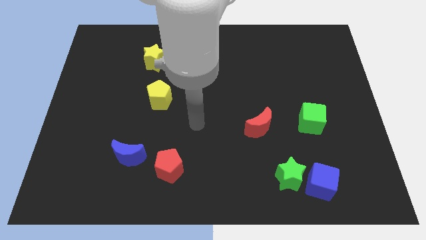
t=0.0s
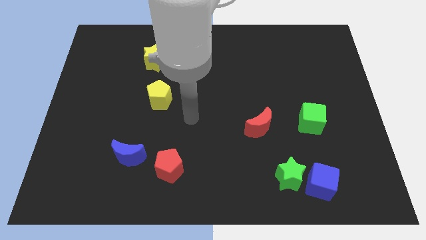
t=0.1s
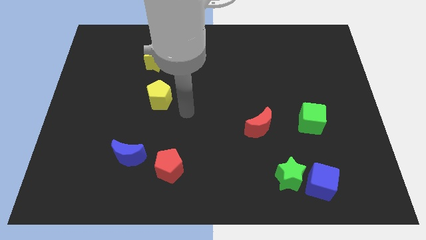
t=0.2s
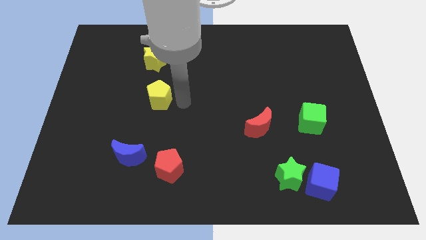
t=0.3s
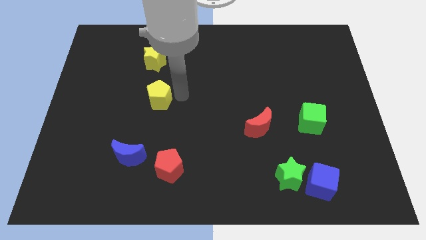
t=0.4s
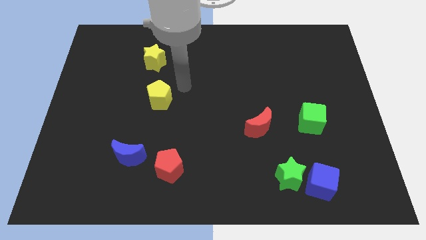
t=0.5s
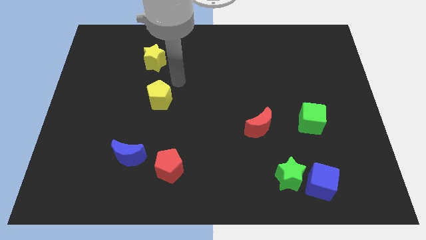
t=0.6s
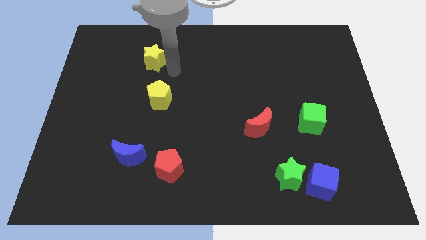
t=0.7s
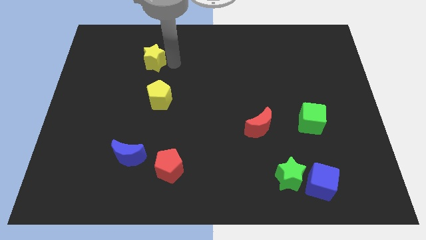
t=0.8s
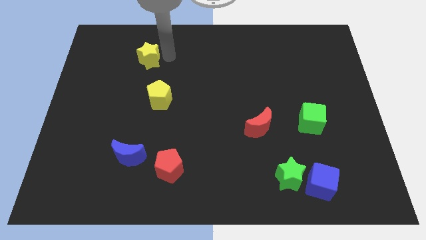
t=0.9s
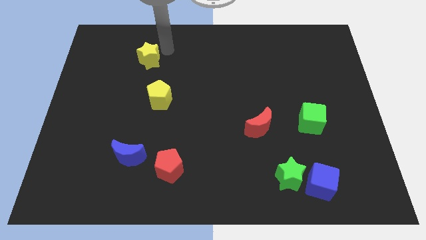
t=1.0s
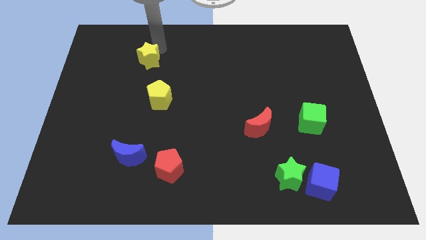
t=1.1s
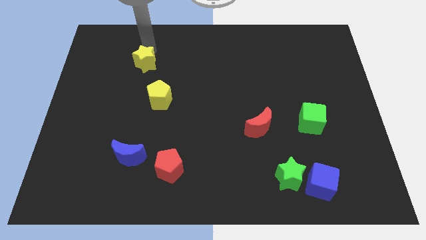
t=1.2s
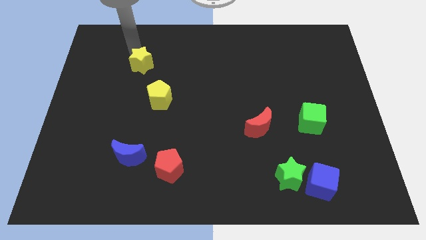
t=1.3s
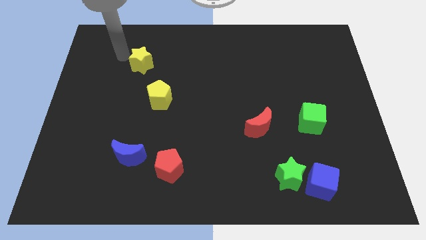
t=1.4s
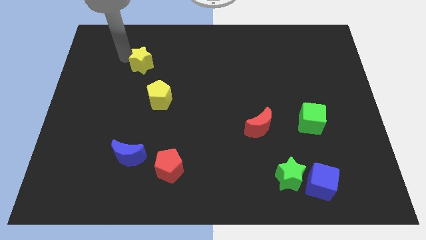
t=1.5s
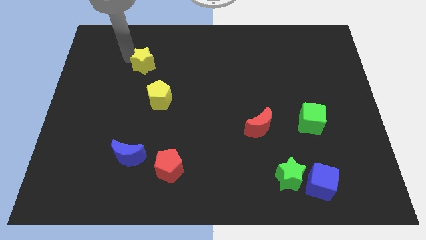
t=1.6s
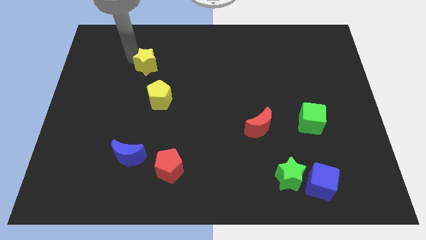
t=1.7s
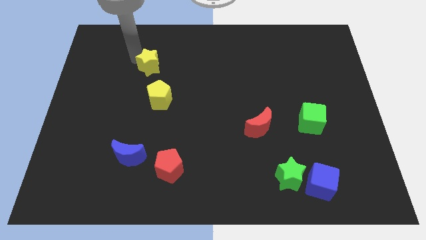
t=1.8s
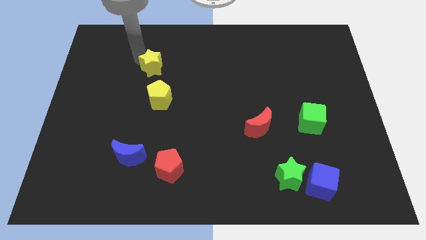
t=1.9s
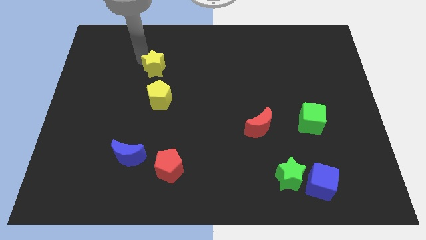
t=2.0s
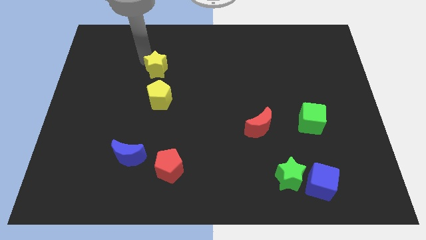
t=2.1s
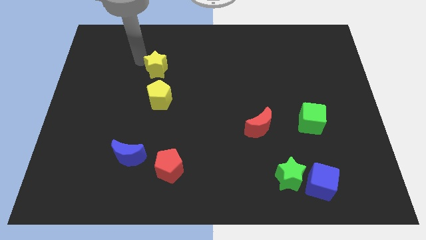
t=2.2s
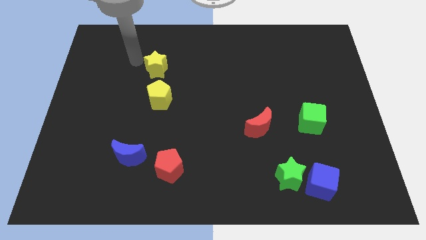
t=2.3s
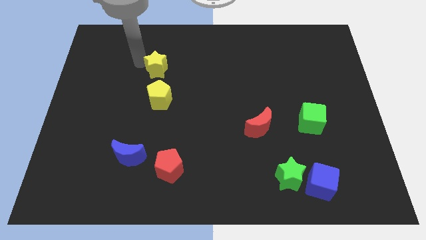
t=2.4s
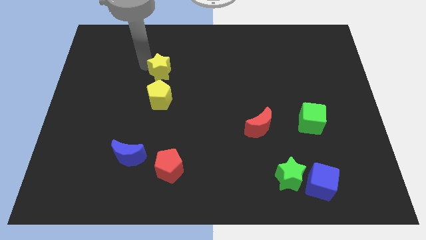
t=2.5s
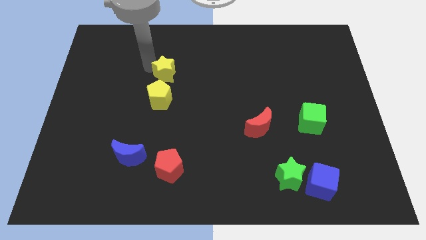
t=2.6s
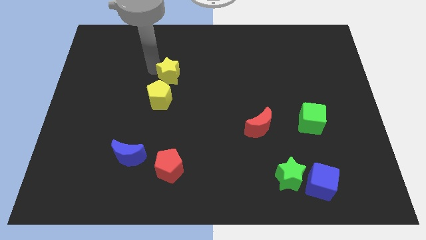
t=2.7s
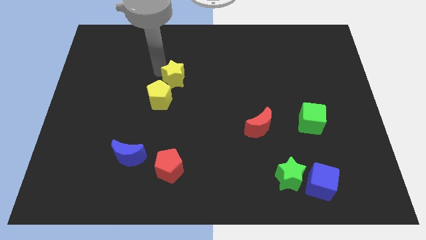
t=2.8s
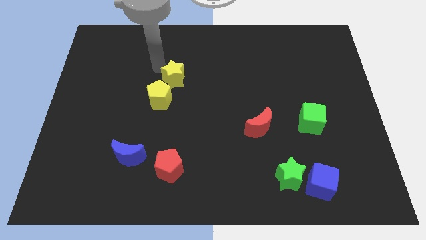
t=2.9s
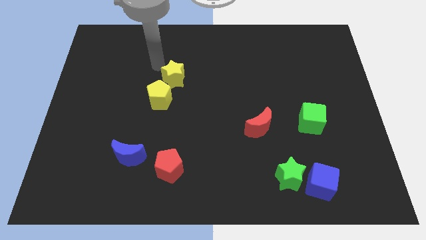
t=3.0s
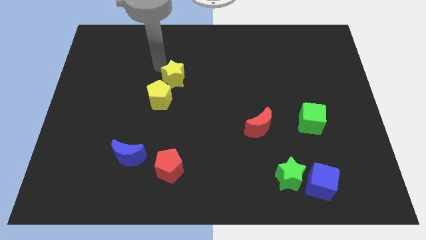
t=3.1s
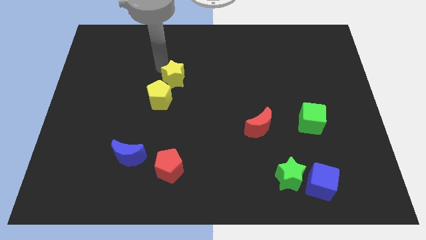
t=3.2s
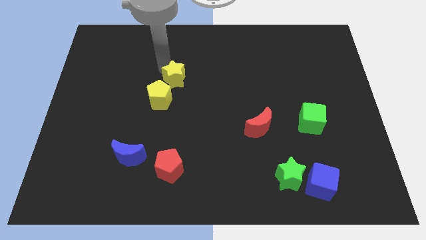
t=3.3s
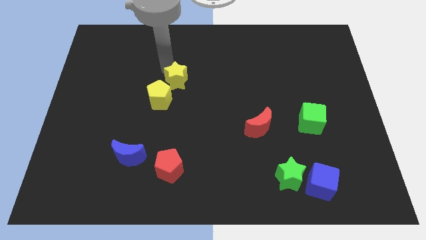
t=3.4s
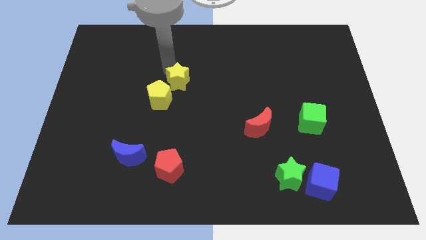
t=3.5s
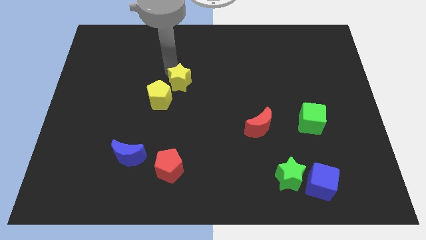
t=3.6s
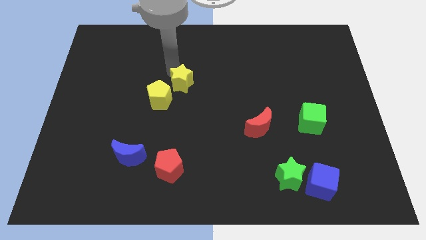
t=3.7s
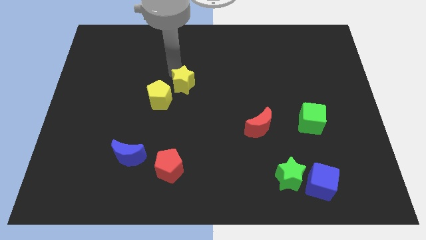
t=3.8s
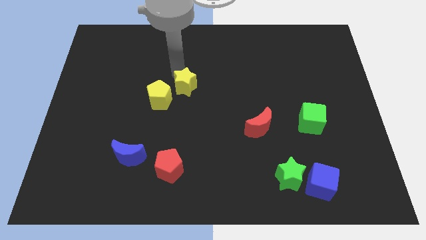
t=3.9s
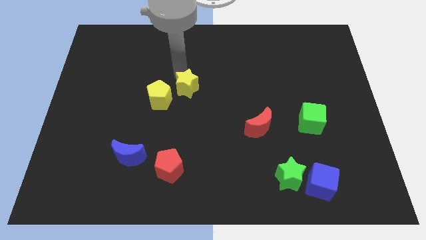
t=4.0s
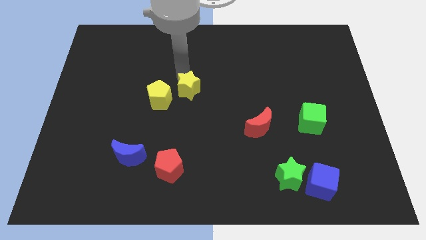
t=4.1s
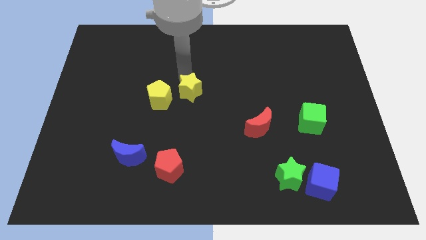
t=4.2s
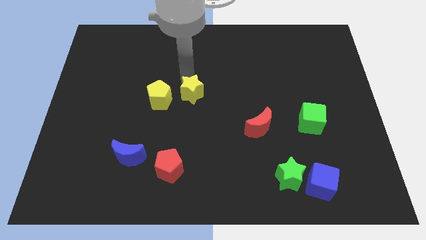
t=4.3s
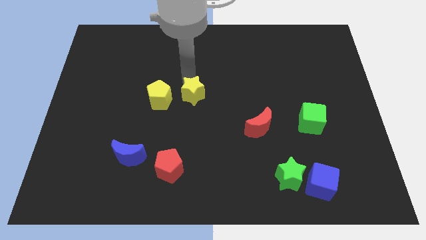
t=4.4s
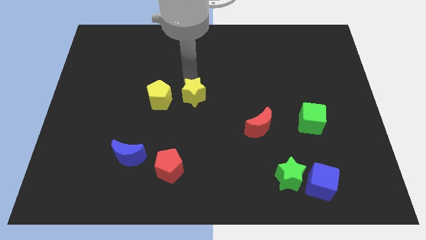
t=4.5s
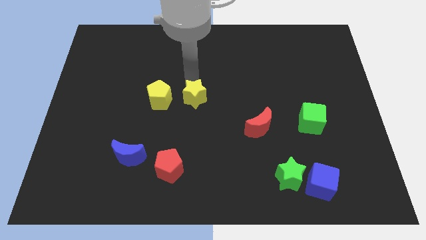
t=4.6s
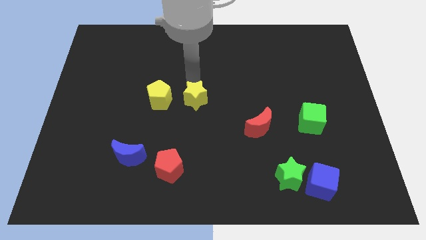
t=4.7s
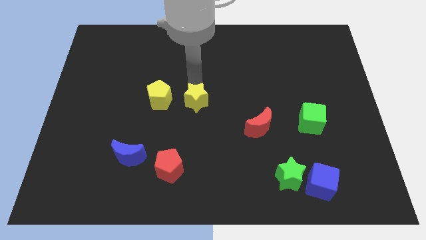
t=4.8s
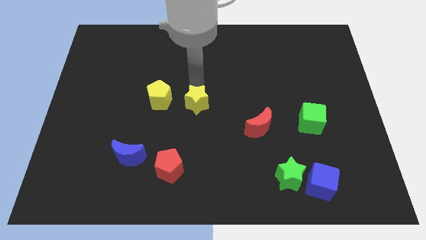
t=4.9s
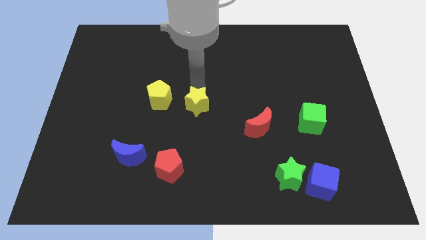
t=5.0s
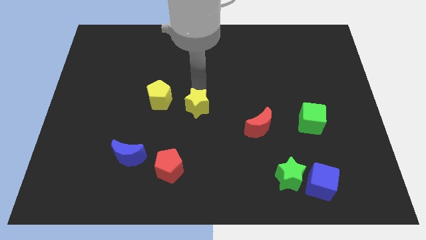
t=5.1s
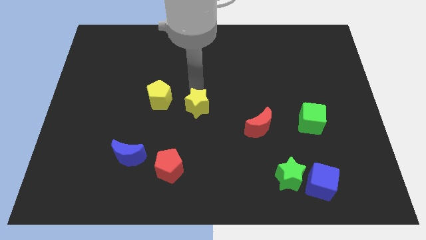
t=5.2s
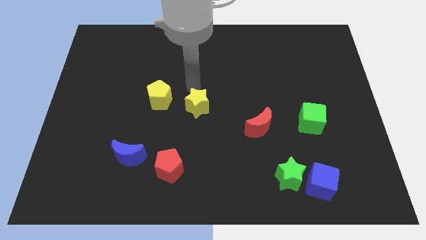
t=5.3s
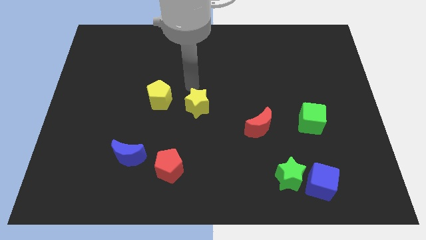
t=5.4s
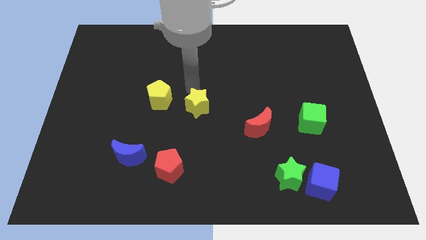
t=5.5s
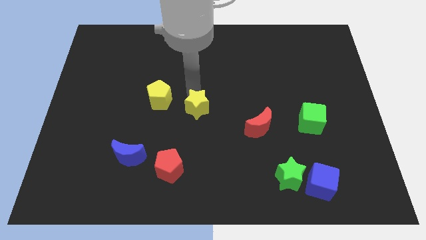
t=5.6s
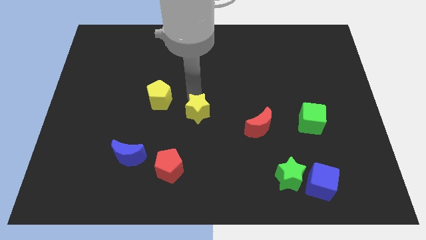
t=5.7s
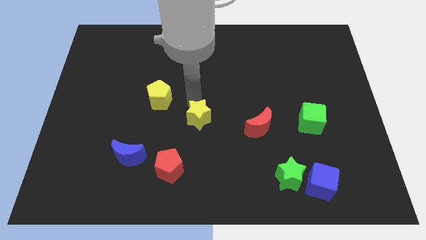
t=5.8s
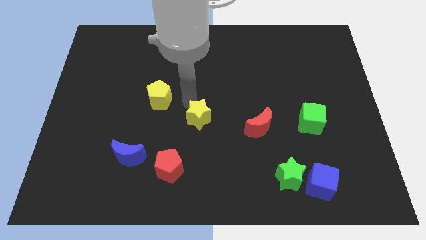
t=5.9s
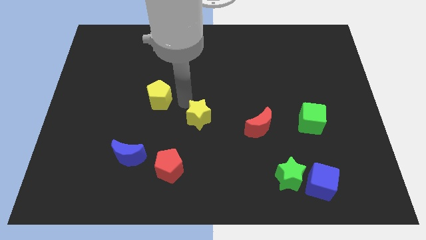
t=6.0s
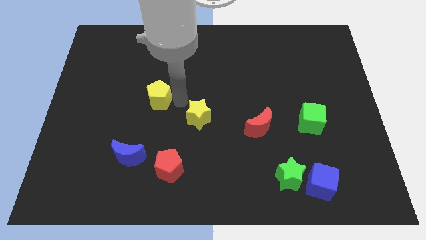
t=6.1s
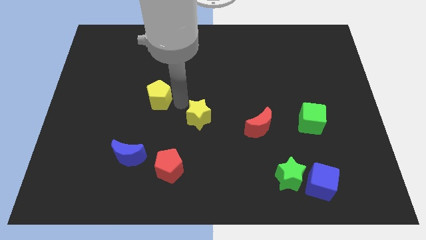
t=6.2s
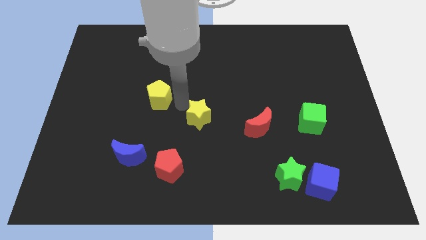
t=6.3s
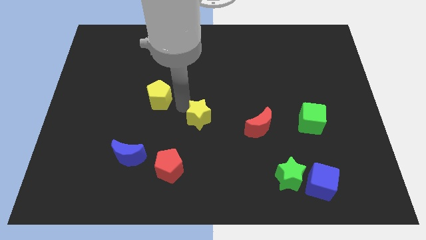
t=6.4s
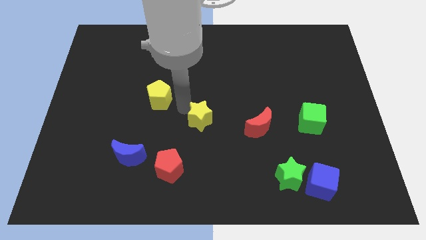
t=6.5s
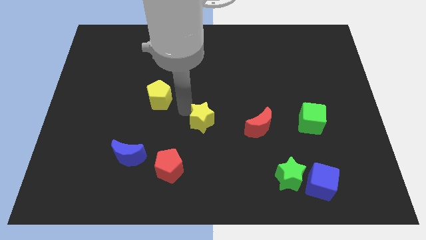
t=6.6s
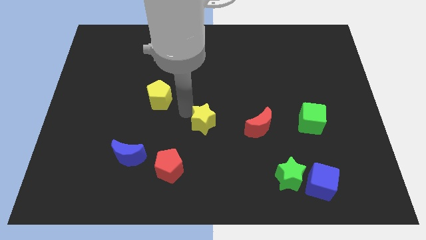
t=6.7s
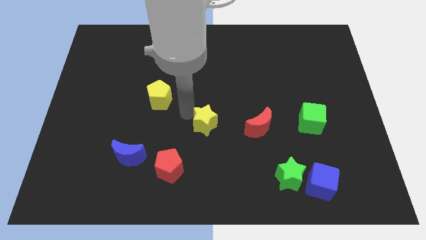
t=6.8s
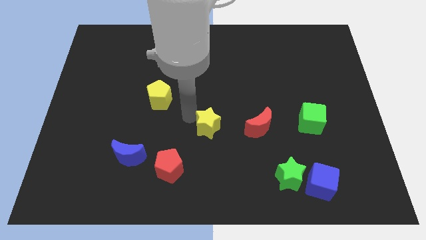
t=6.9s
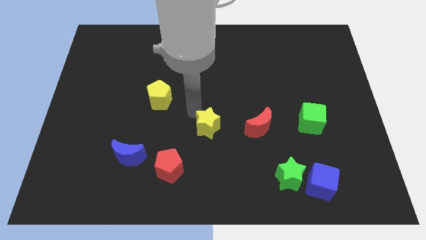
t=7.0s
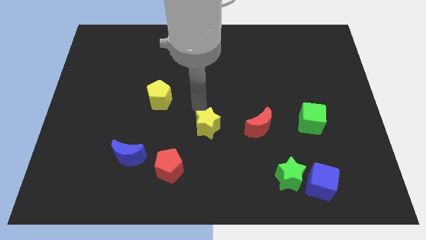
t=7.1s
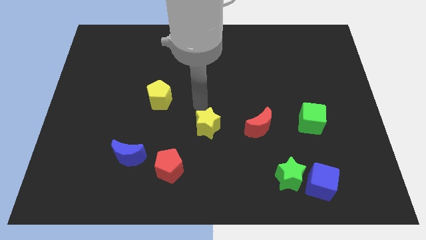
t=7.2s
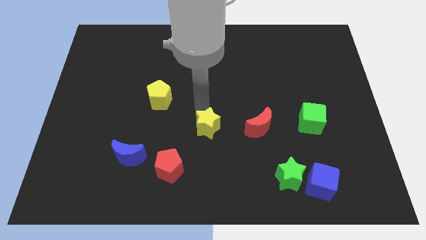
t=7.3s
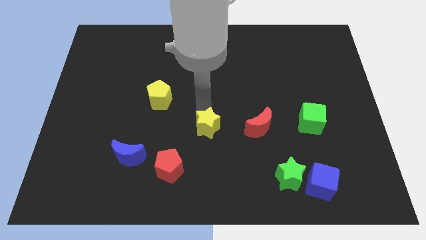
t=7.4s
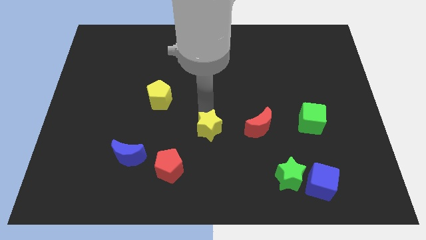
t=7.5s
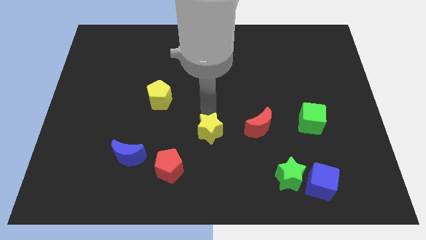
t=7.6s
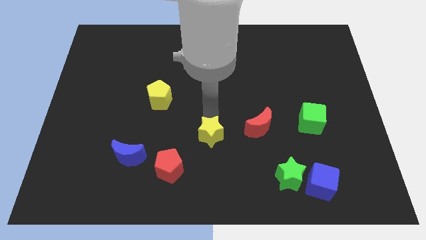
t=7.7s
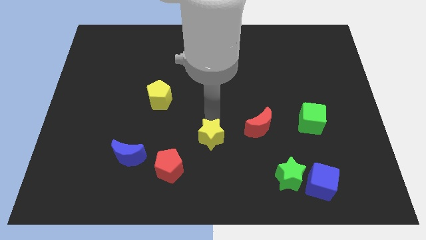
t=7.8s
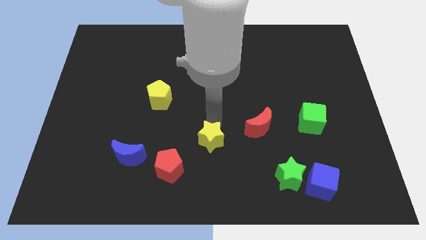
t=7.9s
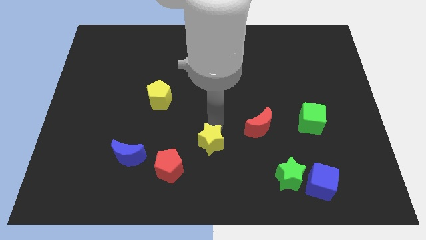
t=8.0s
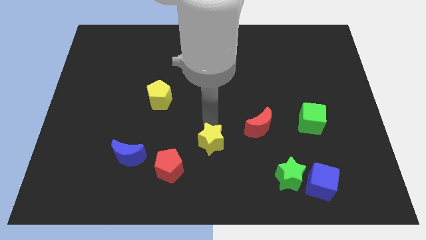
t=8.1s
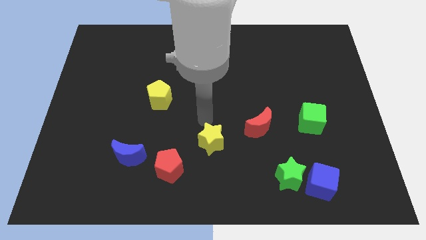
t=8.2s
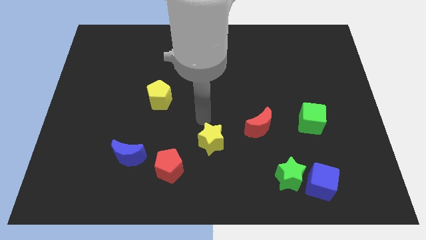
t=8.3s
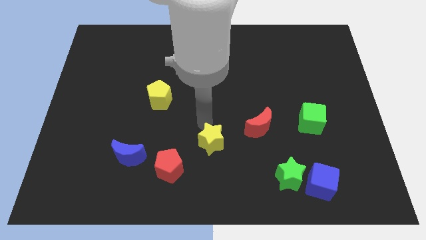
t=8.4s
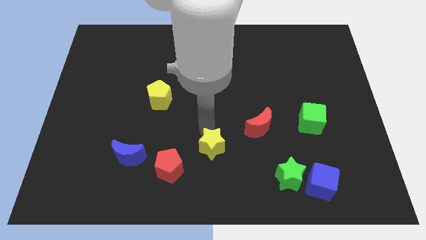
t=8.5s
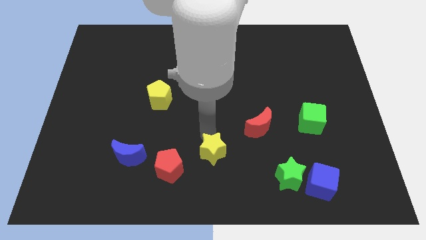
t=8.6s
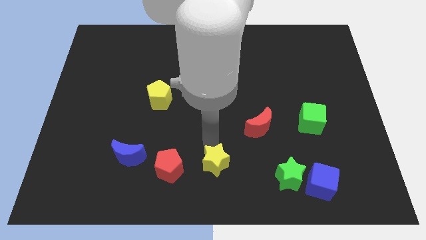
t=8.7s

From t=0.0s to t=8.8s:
slide the yellow star to the bottom side
